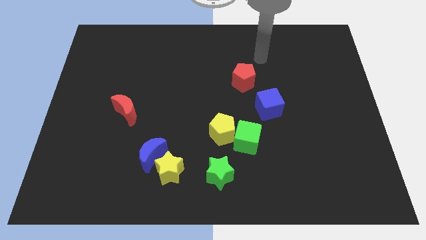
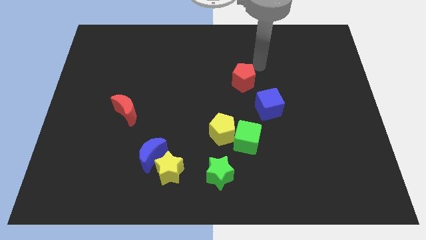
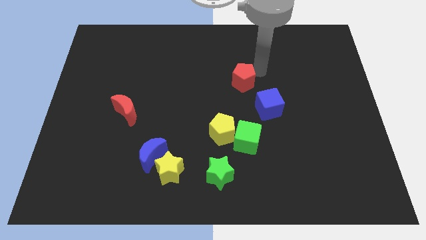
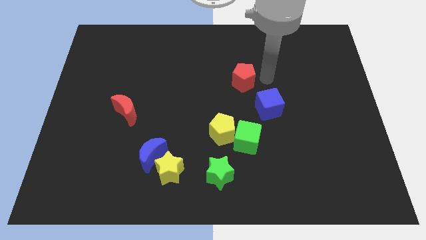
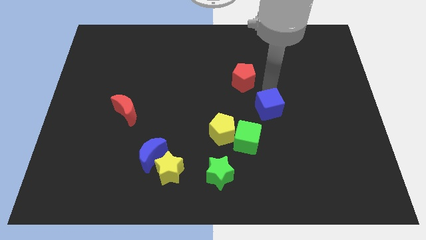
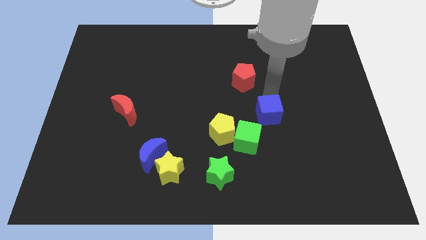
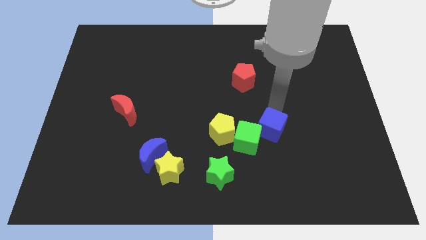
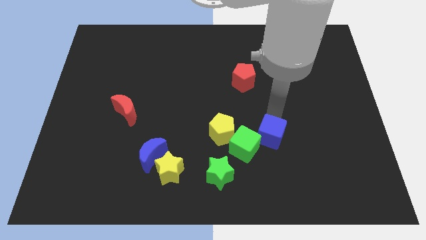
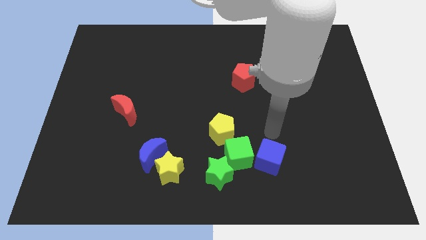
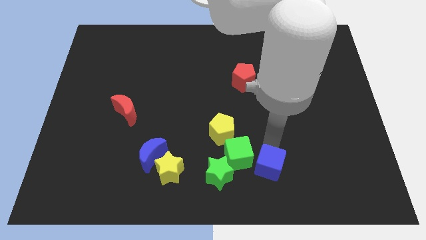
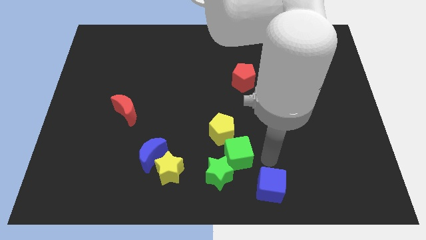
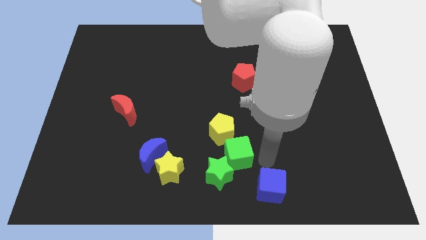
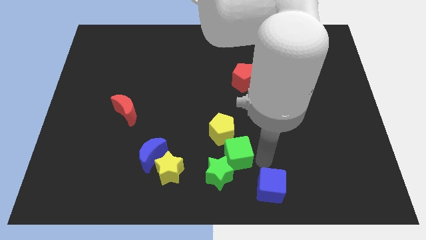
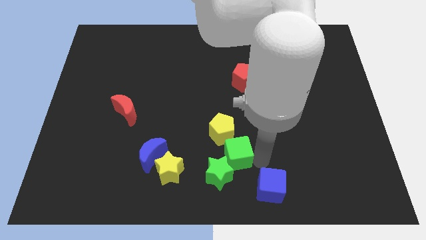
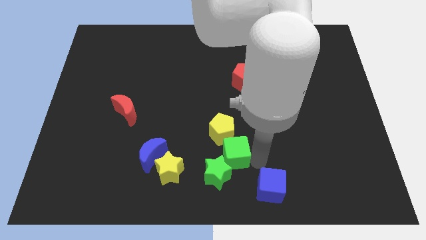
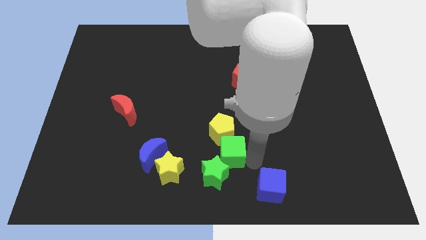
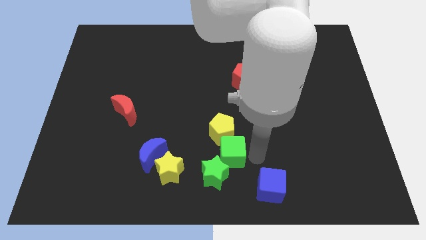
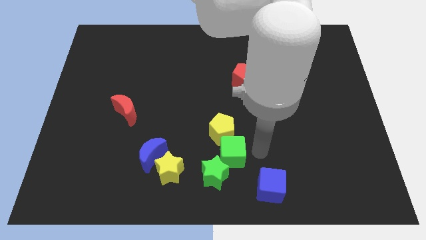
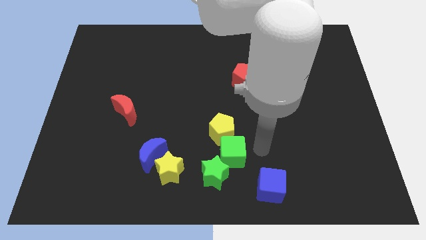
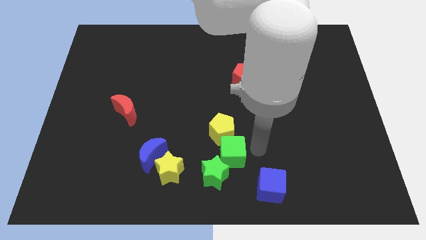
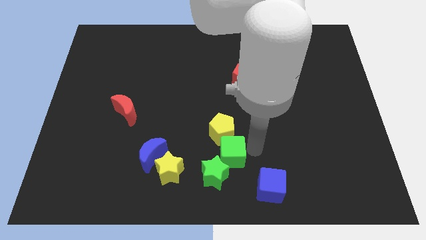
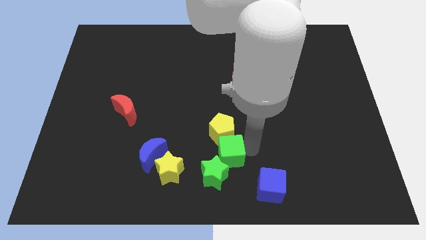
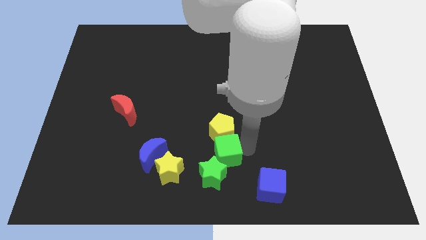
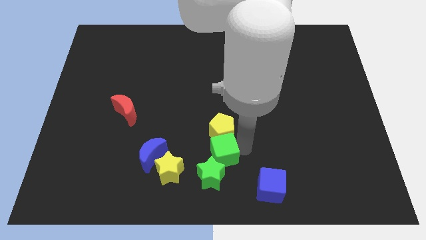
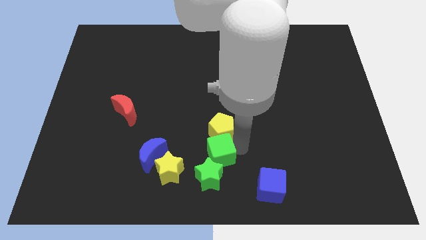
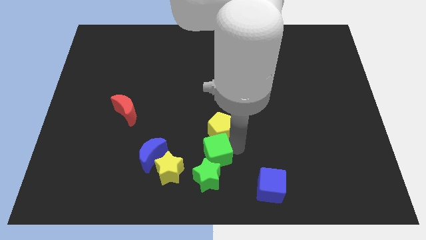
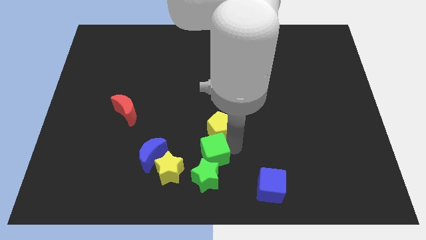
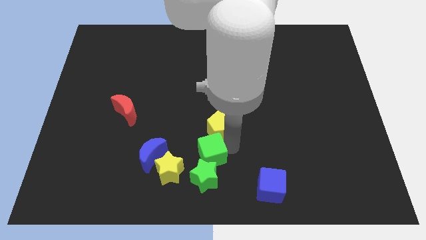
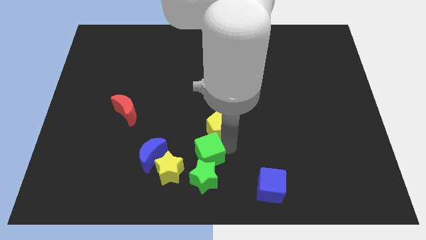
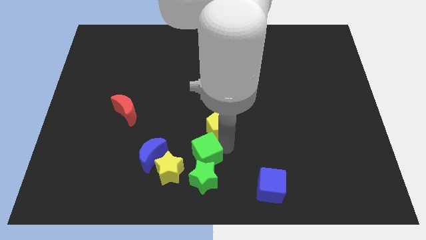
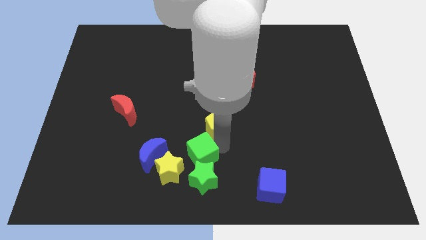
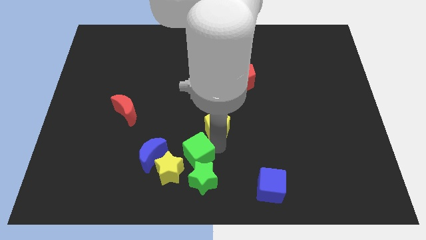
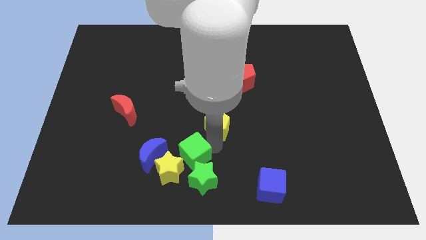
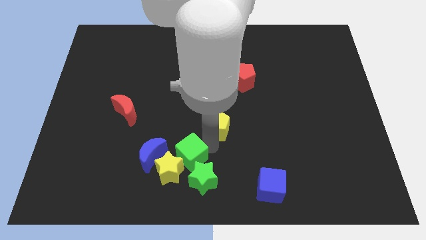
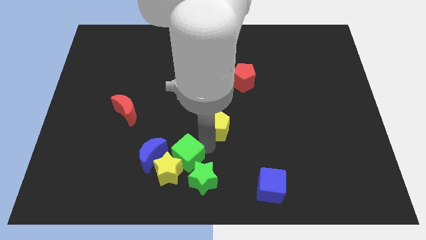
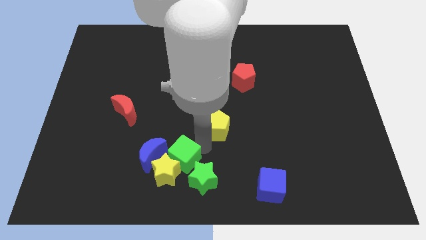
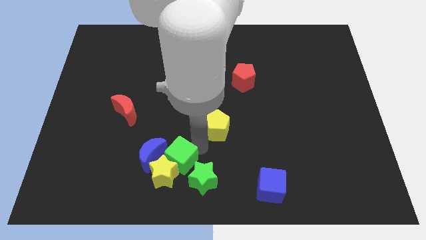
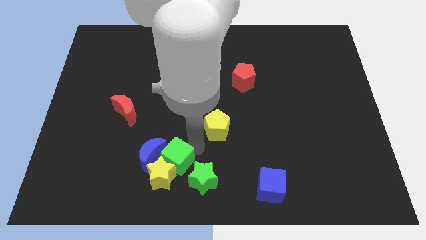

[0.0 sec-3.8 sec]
move the green cube to the left side of the green star

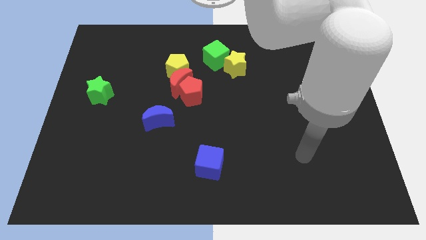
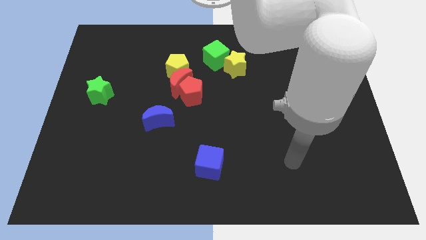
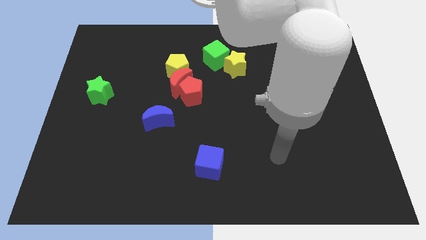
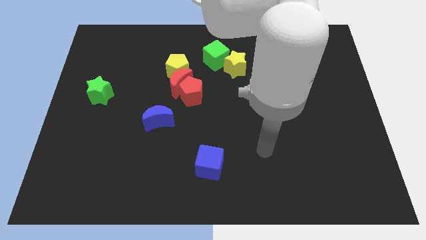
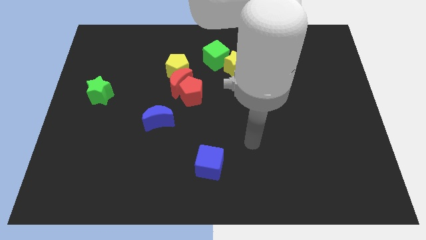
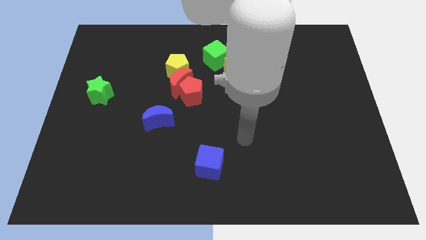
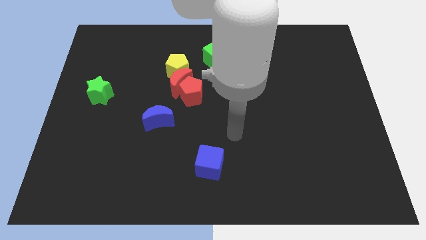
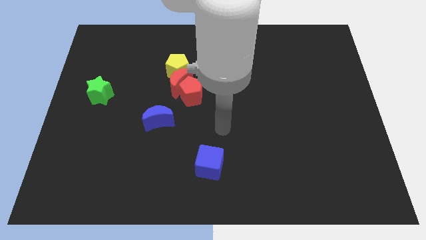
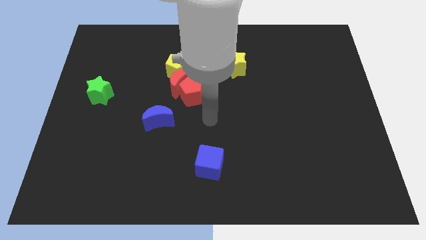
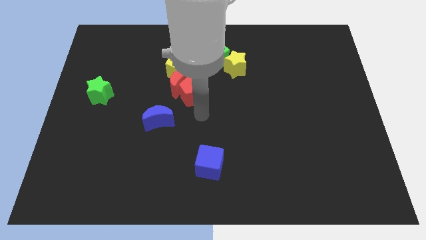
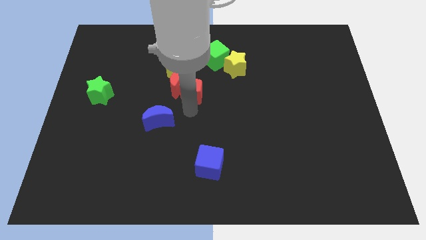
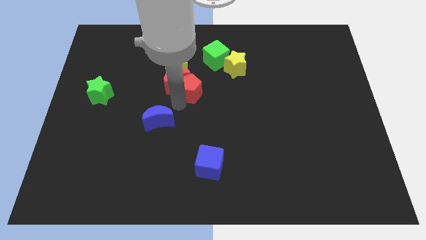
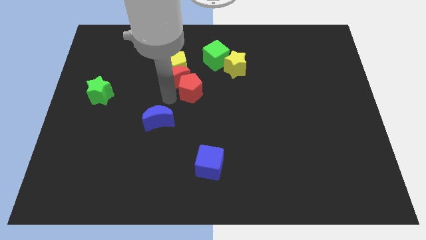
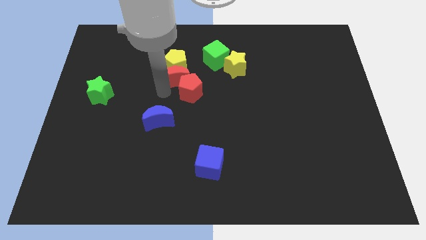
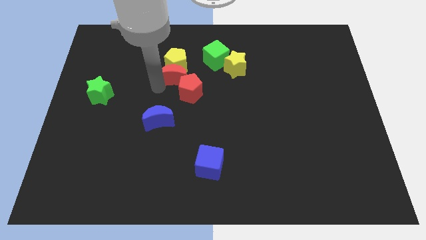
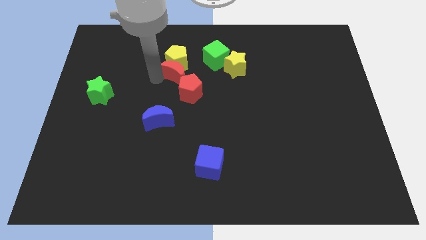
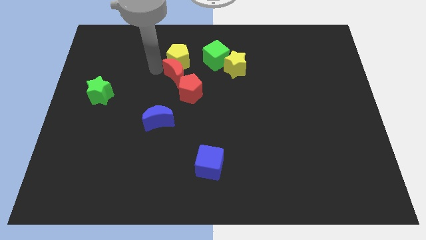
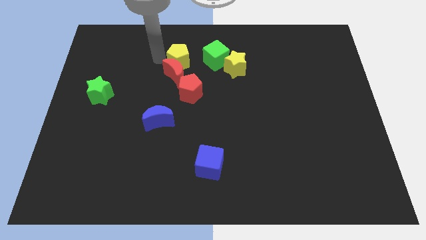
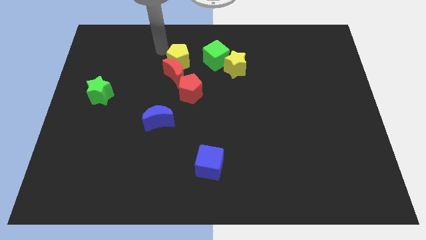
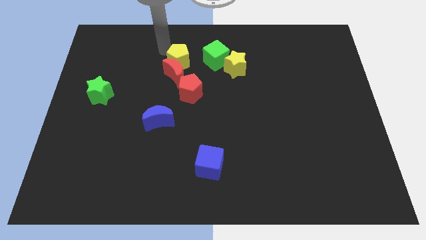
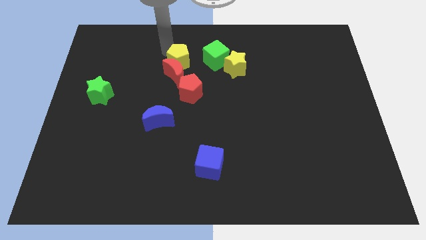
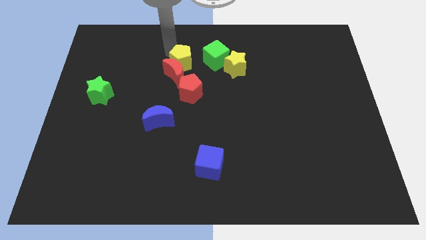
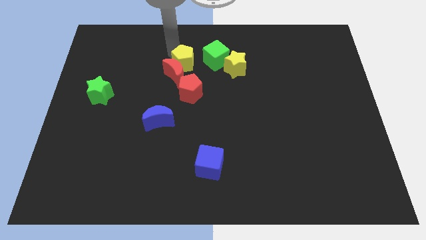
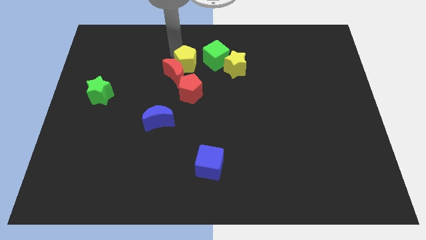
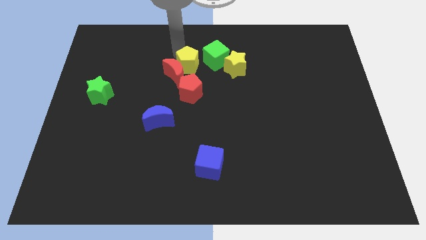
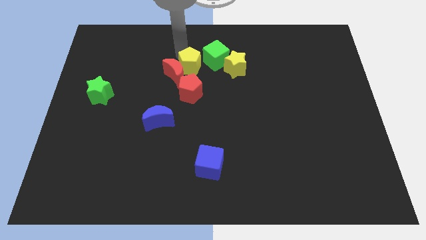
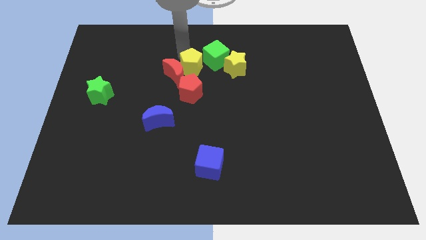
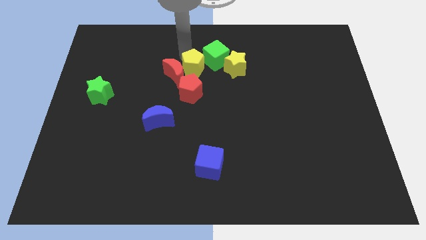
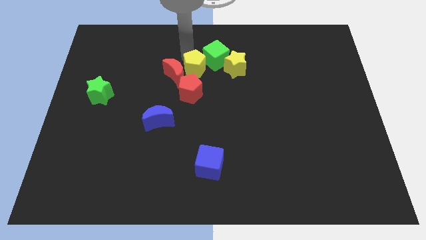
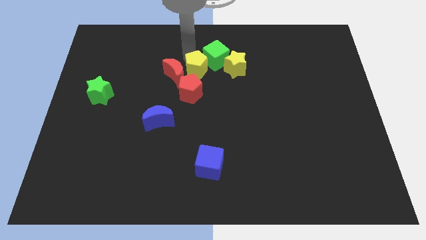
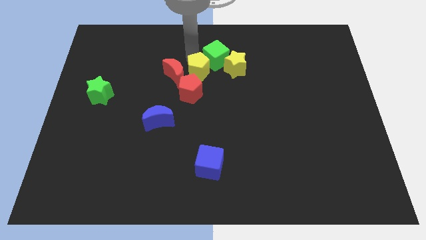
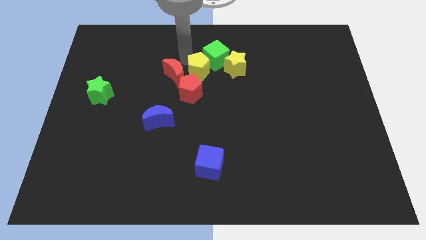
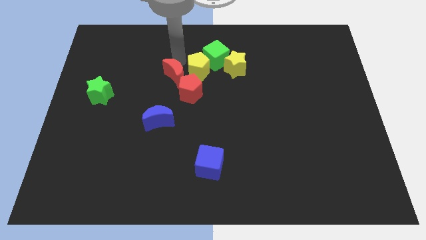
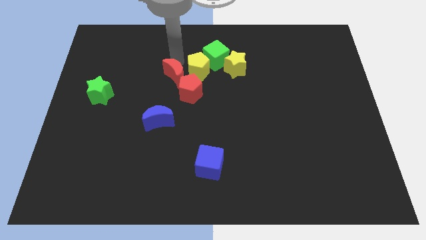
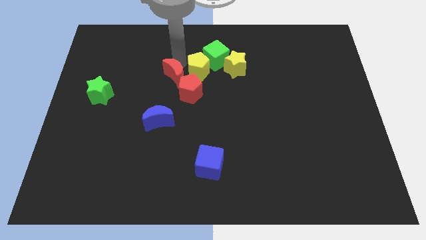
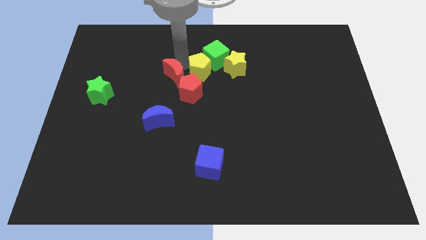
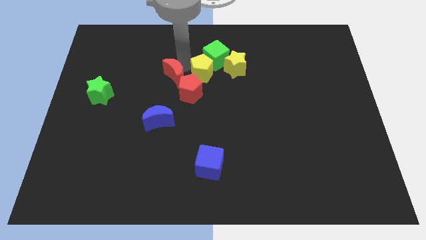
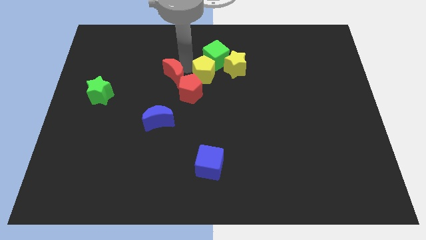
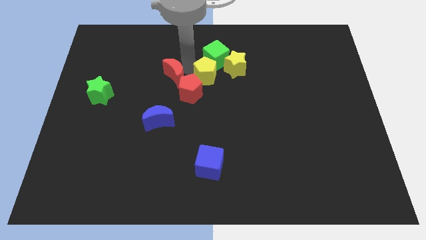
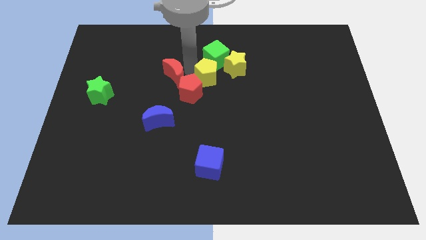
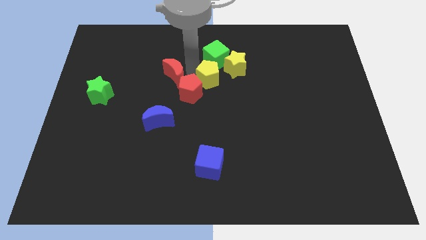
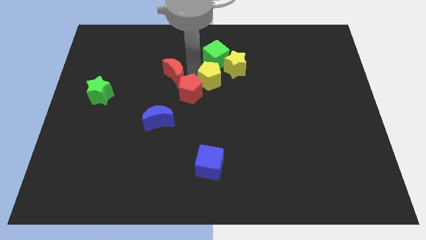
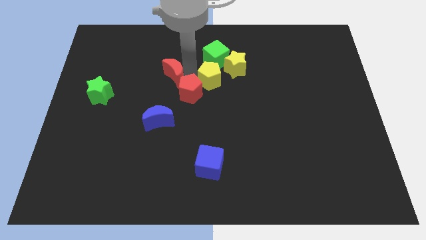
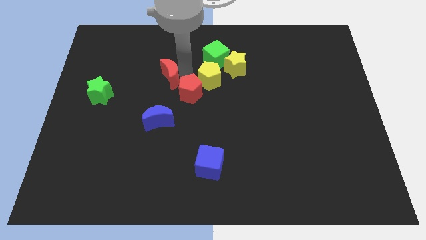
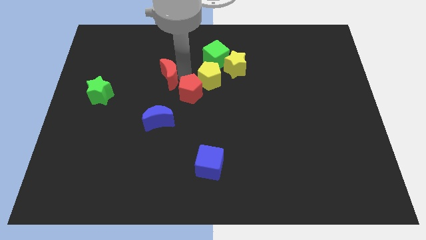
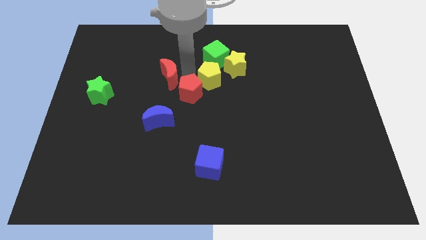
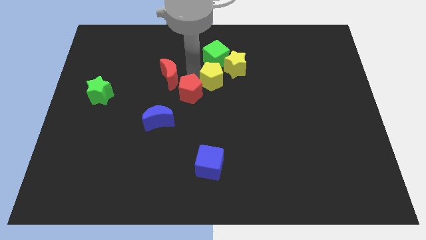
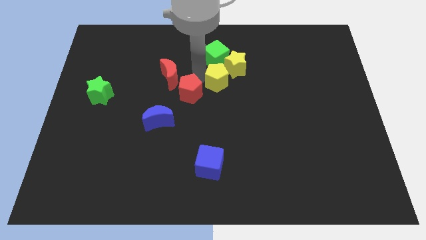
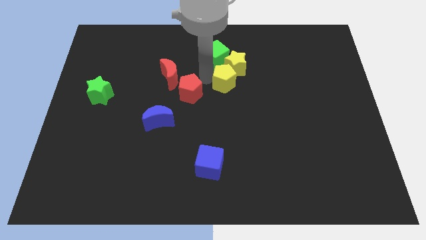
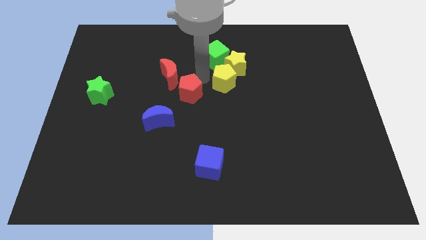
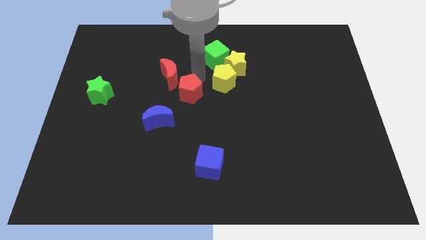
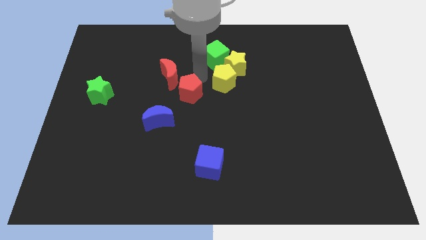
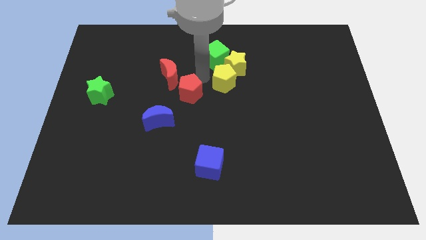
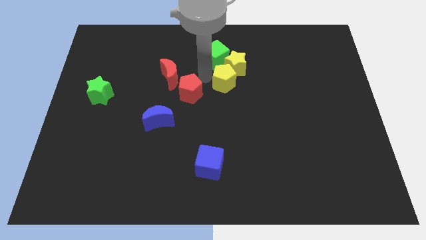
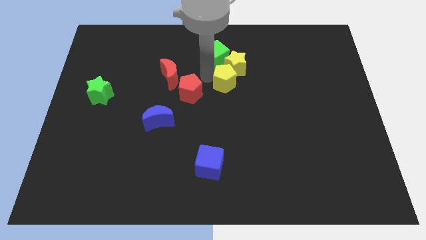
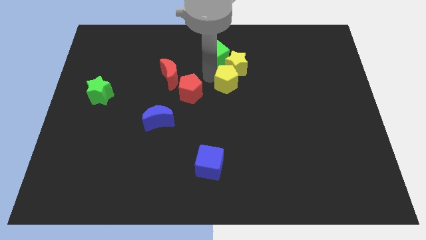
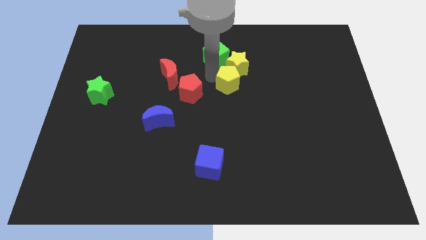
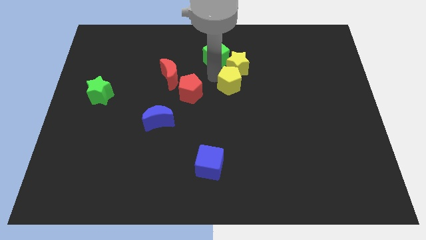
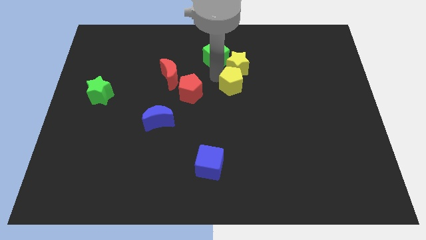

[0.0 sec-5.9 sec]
slide the yellow pentagon diagonally down and to the right of the yellow star
